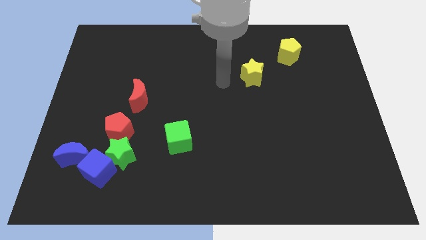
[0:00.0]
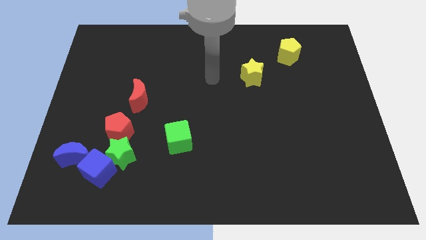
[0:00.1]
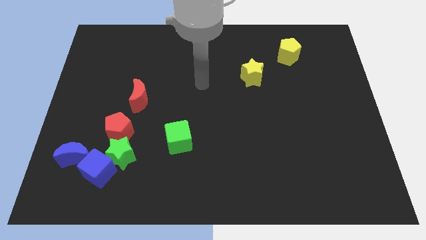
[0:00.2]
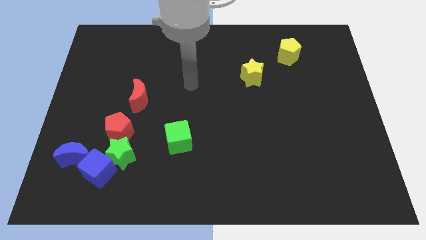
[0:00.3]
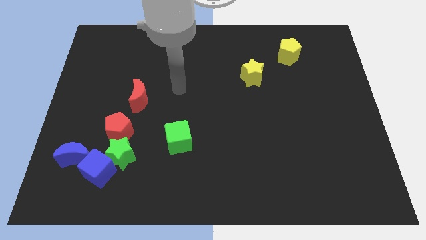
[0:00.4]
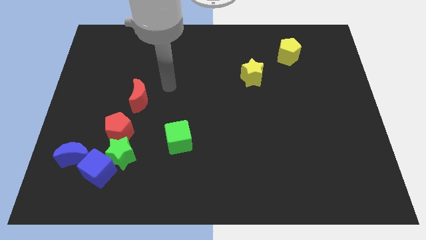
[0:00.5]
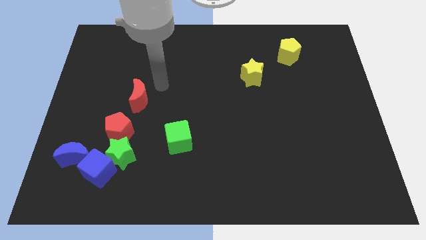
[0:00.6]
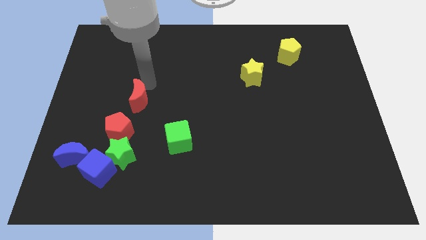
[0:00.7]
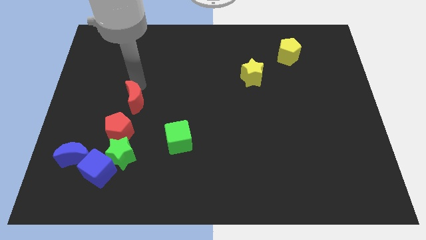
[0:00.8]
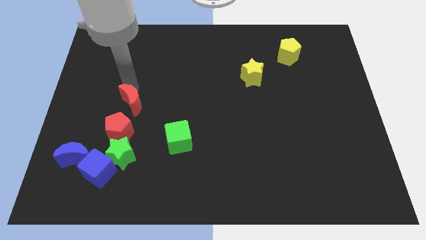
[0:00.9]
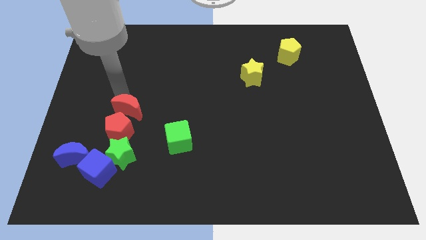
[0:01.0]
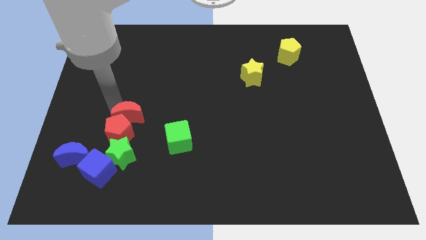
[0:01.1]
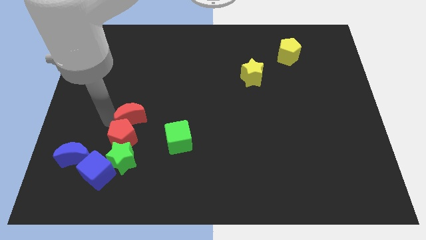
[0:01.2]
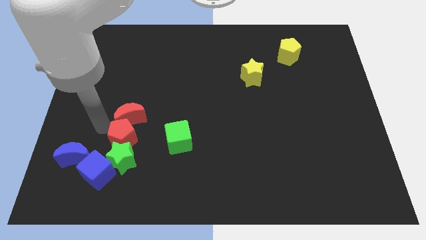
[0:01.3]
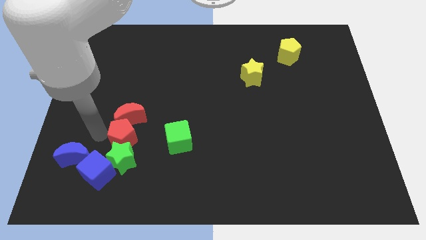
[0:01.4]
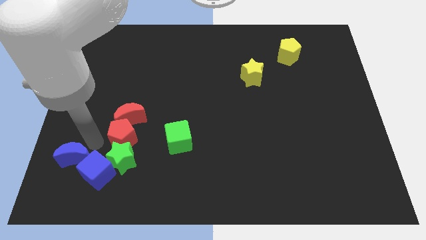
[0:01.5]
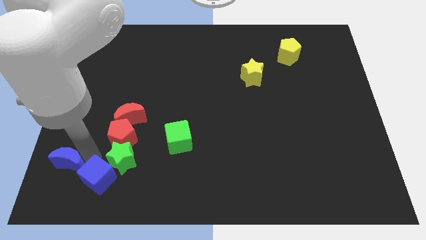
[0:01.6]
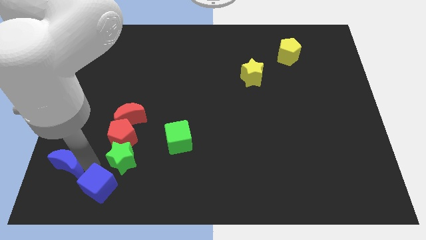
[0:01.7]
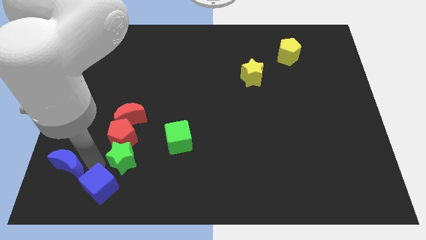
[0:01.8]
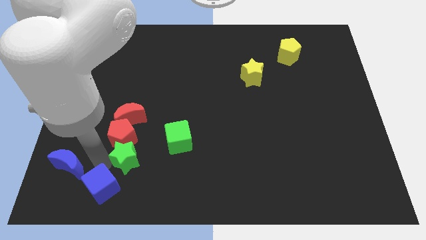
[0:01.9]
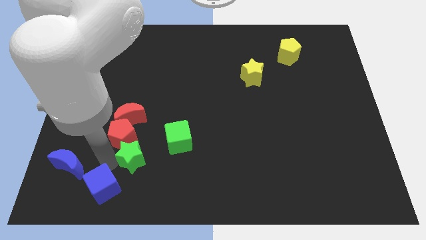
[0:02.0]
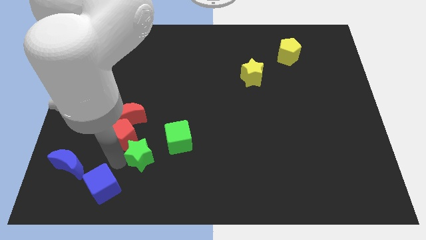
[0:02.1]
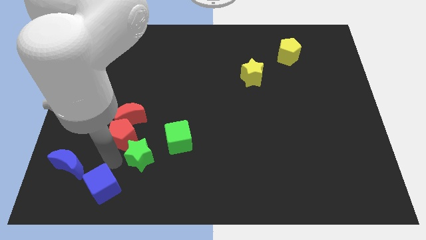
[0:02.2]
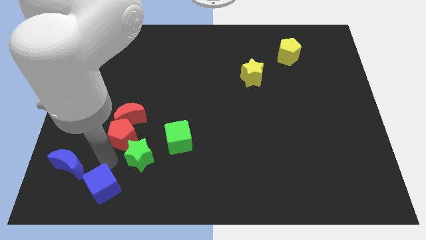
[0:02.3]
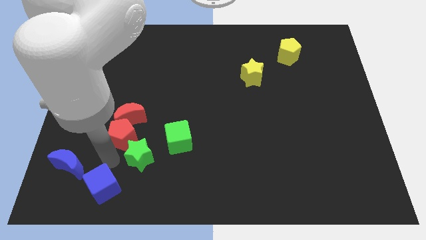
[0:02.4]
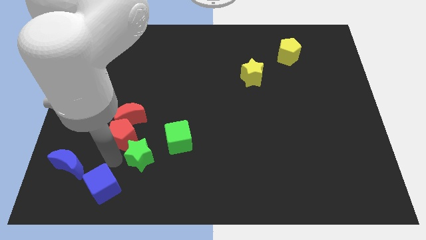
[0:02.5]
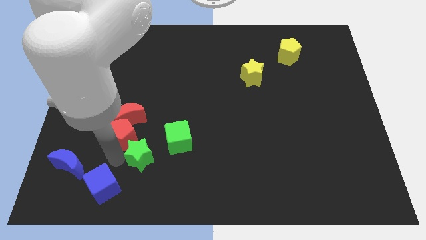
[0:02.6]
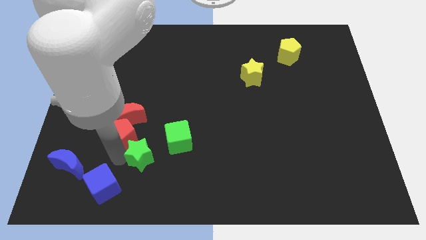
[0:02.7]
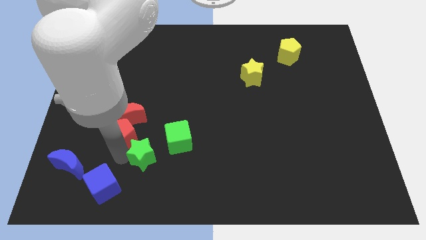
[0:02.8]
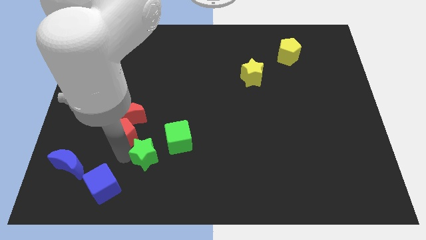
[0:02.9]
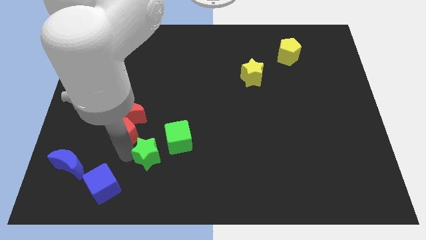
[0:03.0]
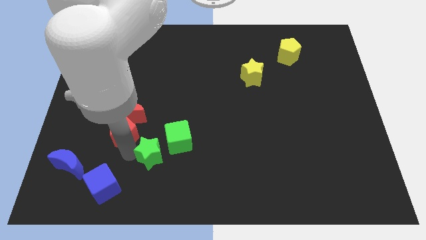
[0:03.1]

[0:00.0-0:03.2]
pull the green star apart from the blue cube, red pentagon, and blue moon

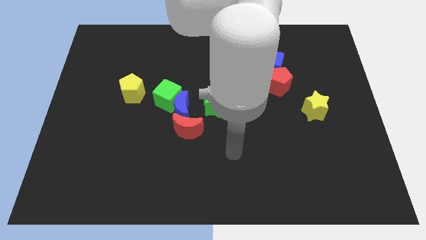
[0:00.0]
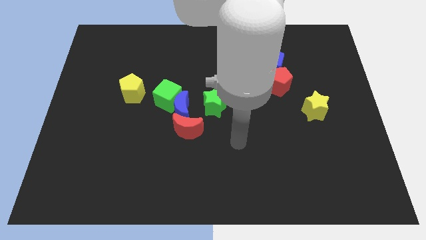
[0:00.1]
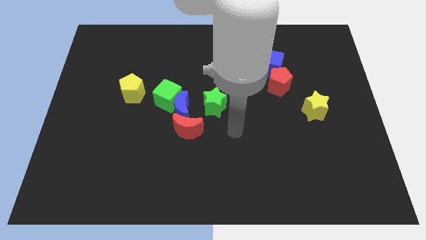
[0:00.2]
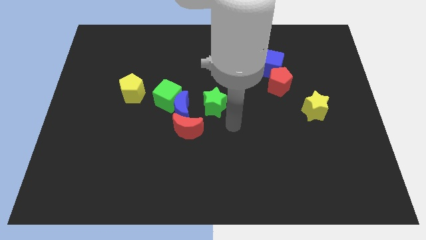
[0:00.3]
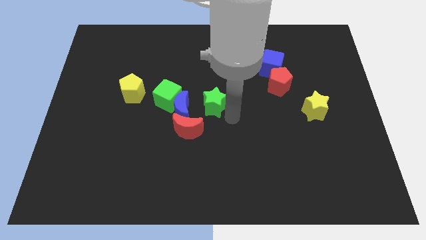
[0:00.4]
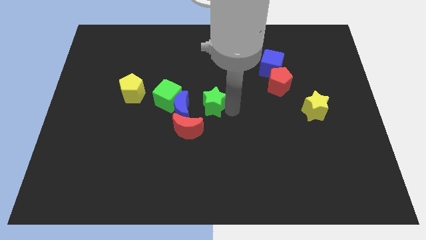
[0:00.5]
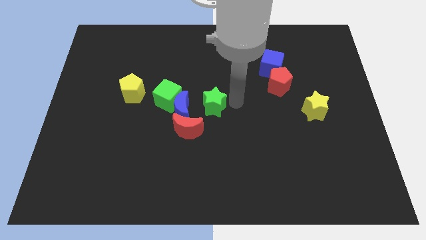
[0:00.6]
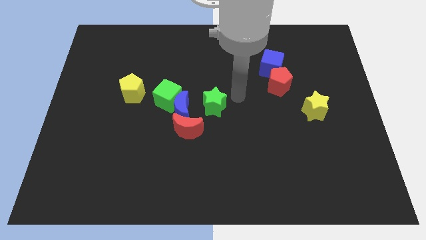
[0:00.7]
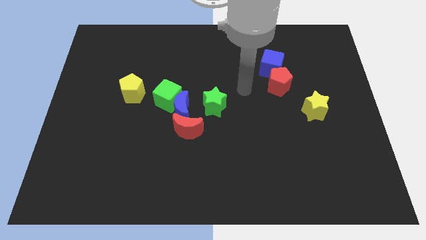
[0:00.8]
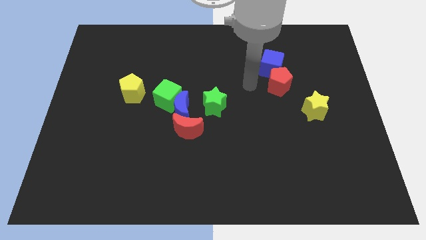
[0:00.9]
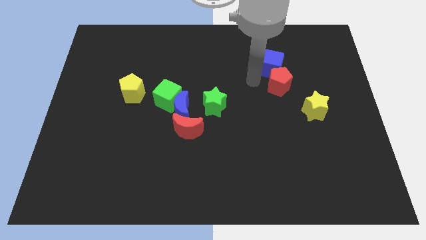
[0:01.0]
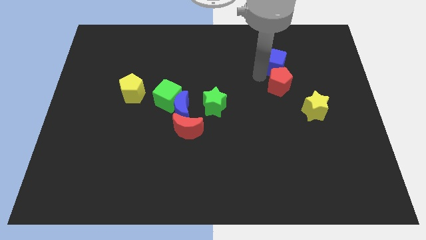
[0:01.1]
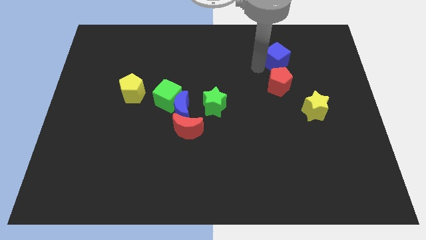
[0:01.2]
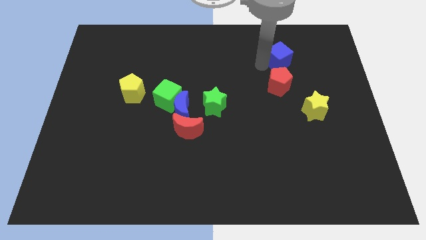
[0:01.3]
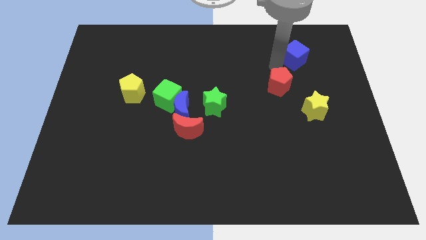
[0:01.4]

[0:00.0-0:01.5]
pull the red pentagon apart from the blue cube

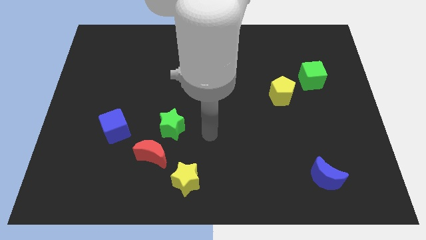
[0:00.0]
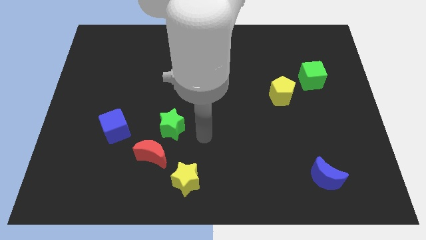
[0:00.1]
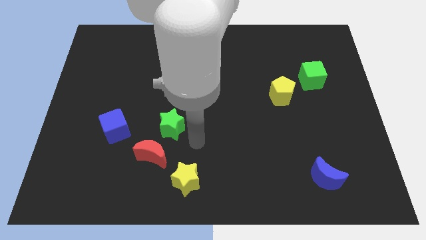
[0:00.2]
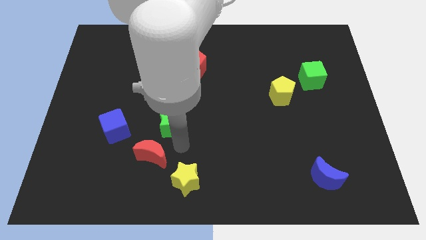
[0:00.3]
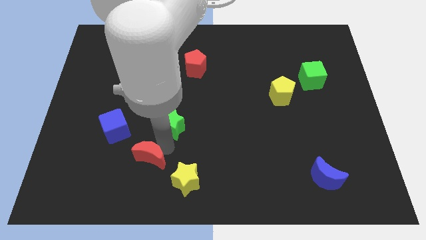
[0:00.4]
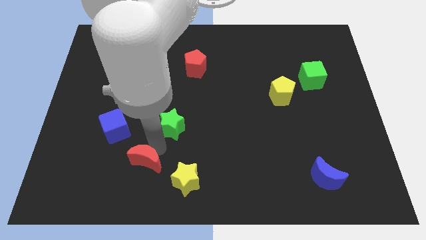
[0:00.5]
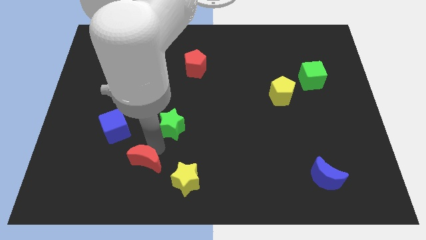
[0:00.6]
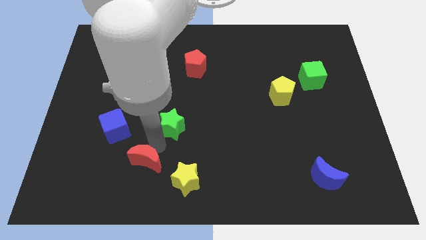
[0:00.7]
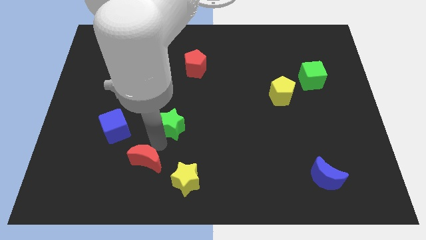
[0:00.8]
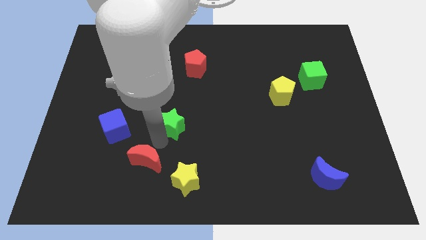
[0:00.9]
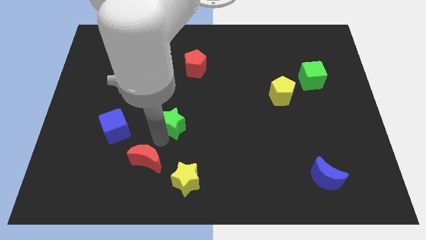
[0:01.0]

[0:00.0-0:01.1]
move the green star away from the red moon

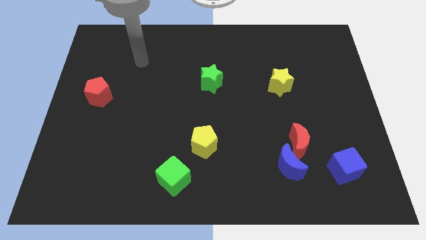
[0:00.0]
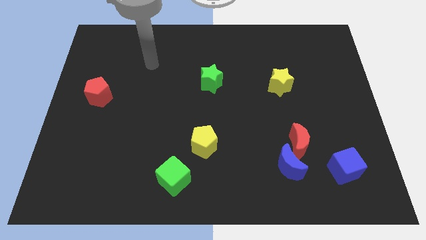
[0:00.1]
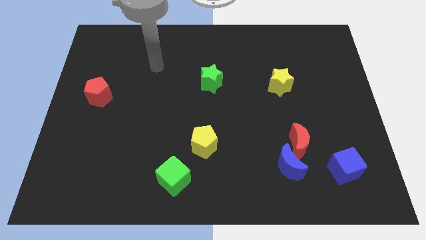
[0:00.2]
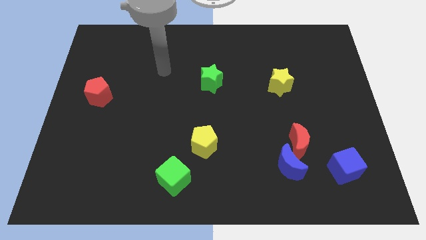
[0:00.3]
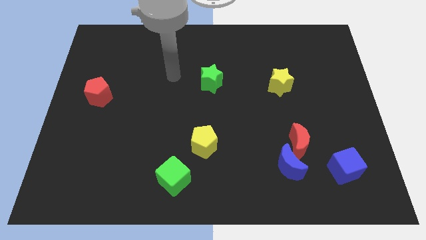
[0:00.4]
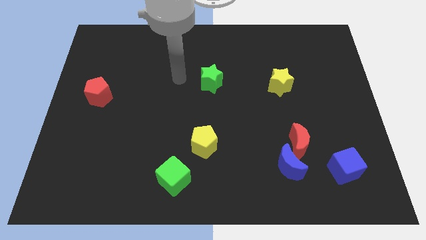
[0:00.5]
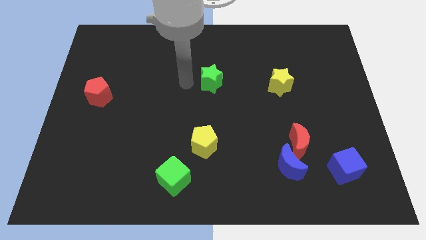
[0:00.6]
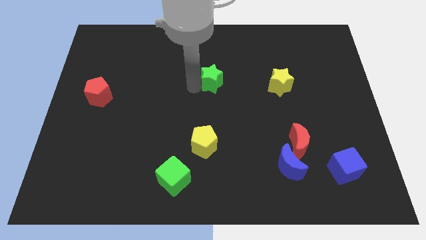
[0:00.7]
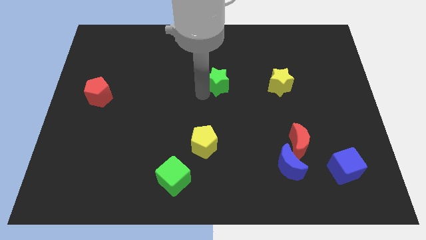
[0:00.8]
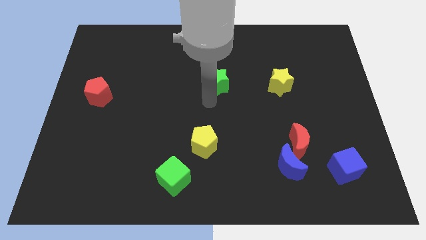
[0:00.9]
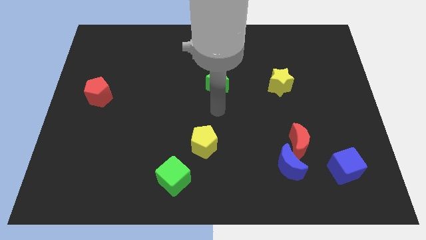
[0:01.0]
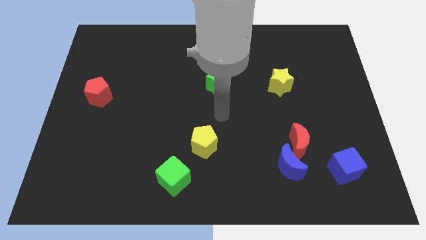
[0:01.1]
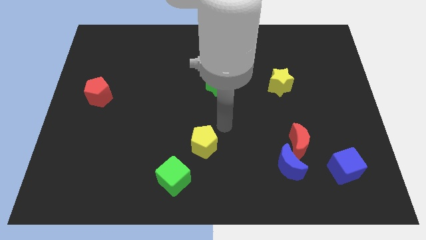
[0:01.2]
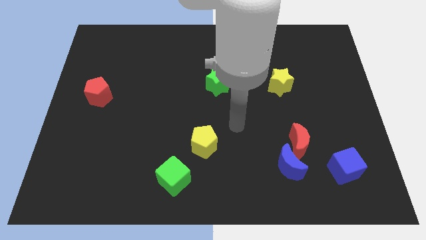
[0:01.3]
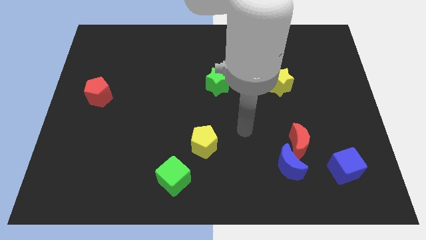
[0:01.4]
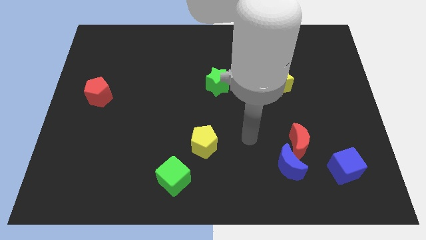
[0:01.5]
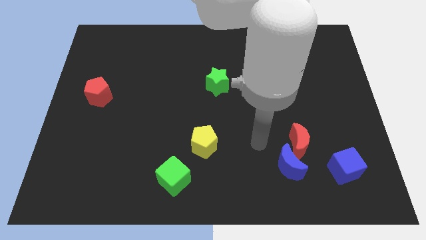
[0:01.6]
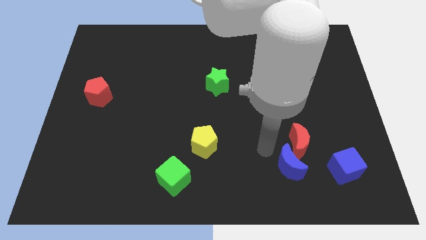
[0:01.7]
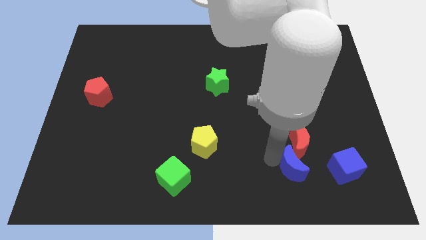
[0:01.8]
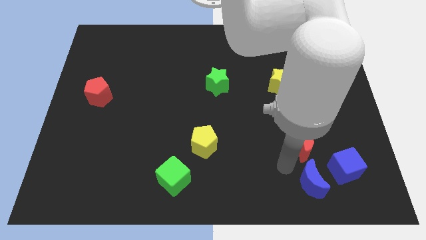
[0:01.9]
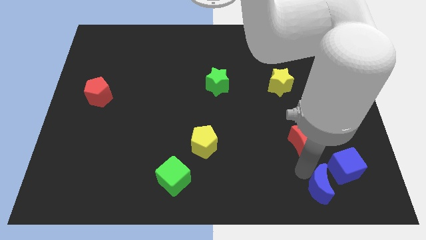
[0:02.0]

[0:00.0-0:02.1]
pull the red moon apart from the blue moon

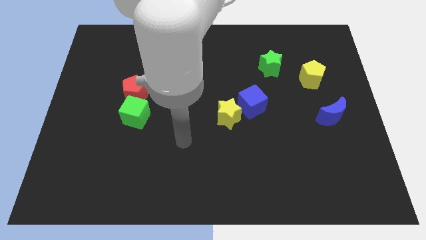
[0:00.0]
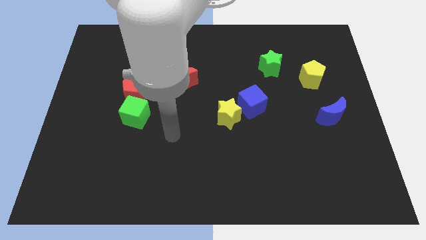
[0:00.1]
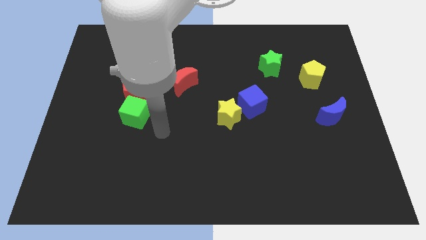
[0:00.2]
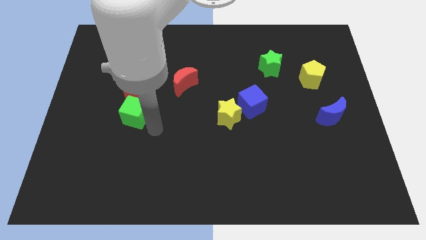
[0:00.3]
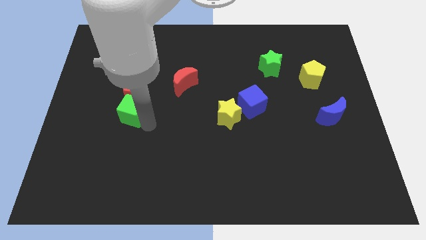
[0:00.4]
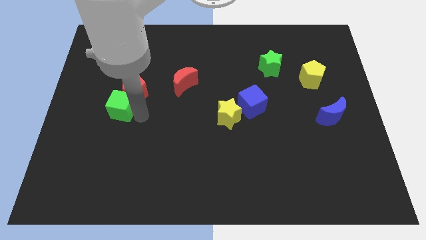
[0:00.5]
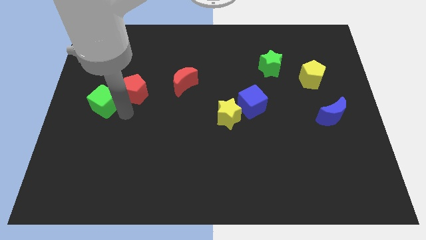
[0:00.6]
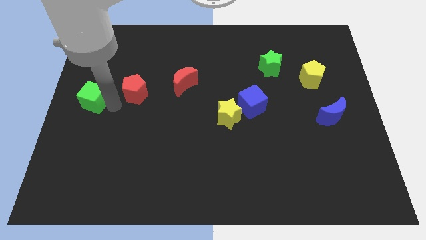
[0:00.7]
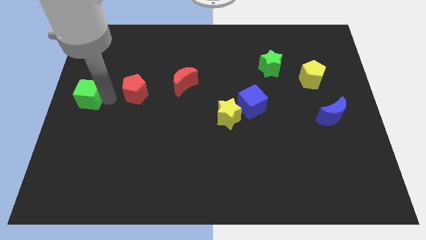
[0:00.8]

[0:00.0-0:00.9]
separate the red pentagon from the green cube

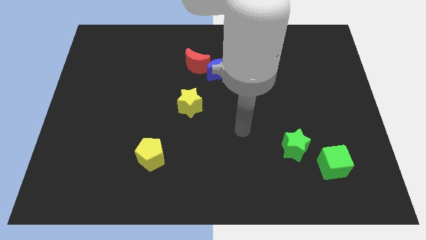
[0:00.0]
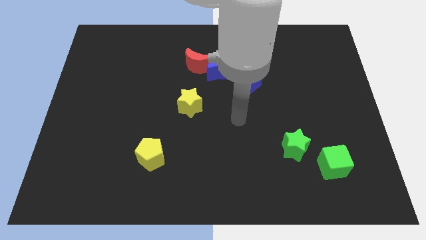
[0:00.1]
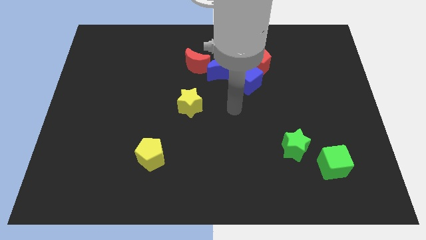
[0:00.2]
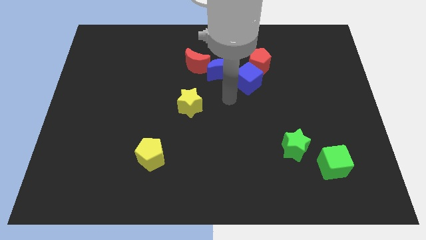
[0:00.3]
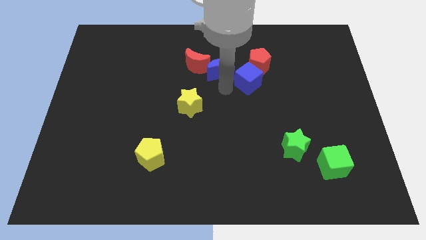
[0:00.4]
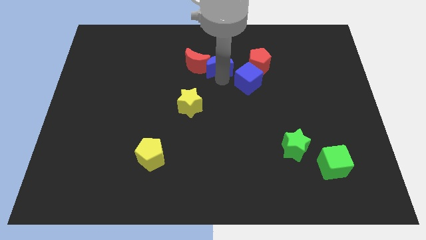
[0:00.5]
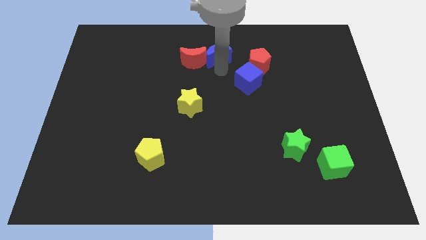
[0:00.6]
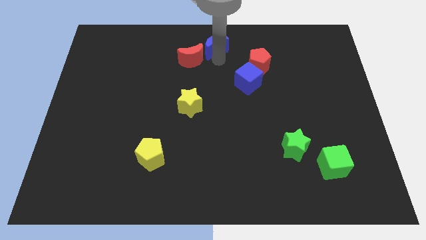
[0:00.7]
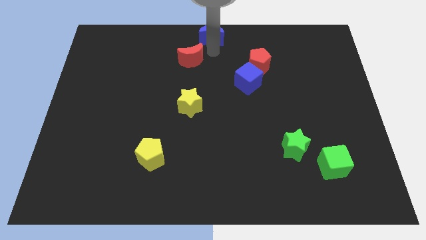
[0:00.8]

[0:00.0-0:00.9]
separate the red moon from the blue moon
